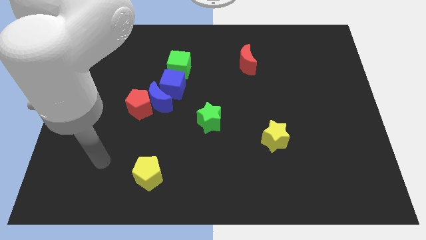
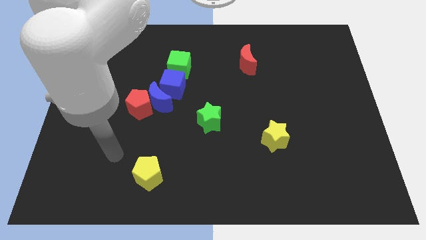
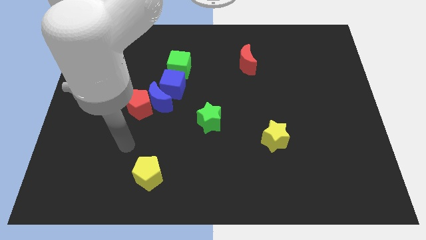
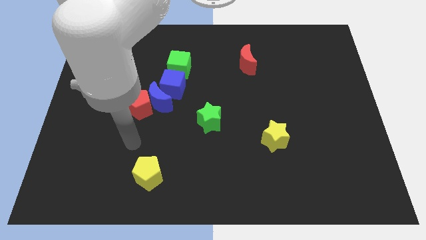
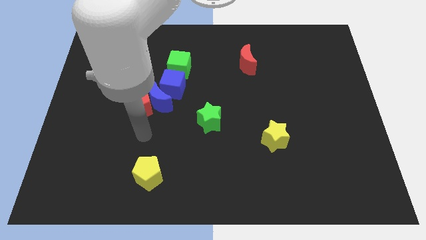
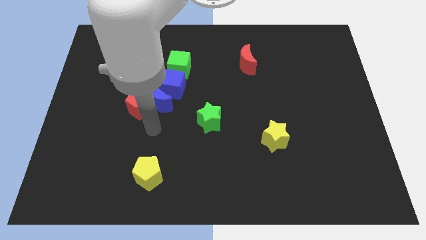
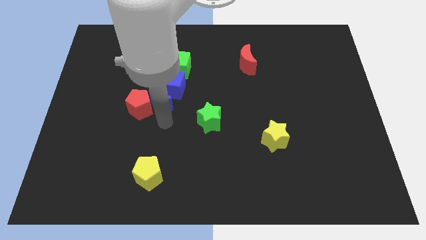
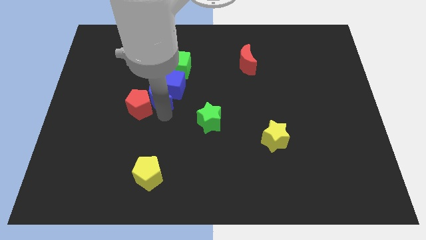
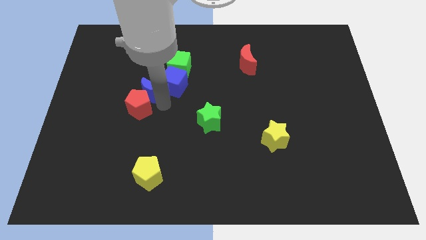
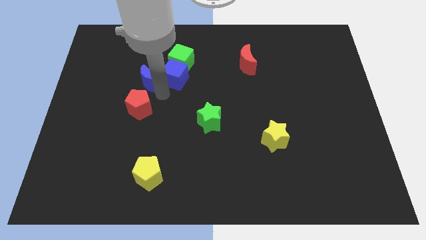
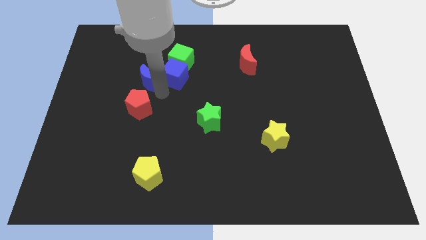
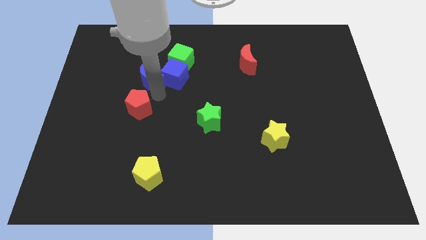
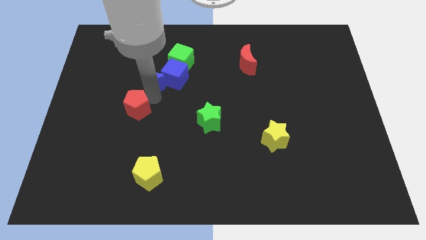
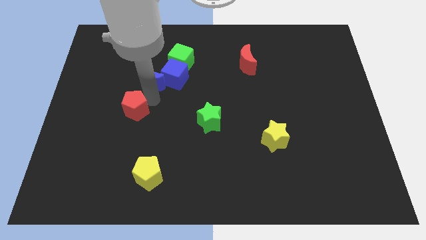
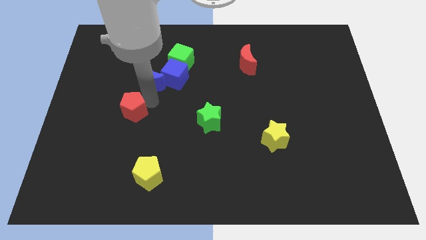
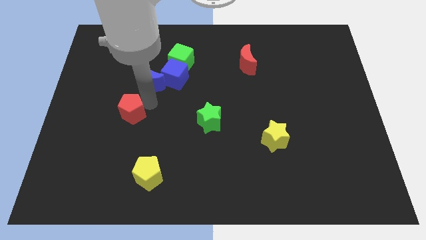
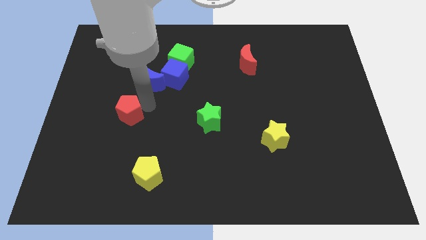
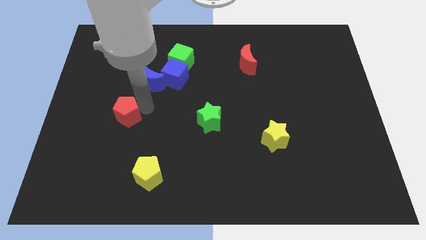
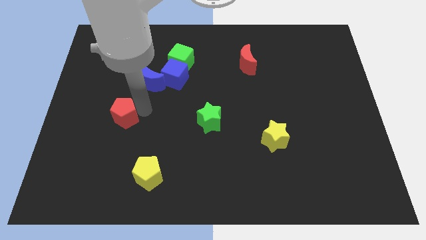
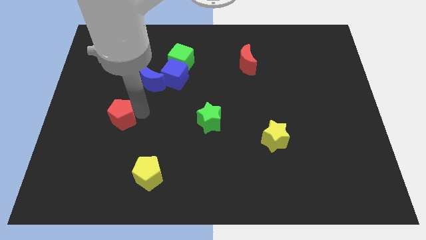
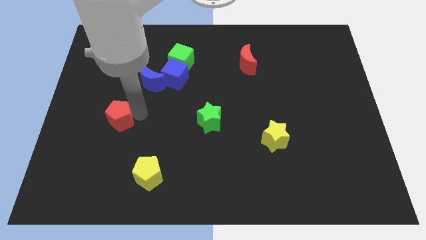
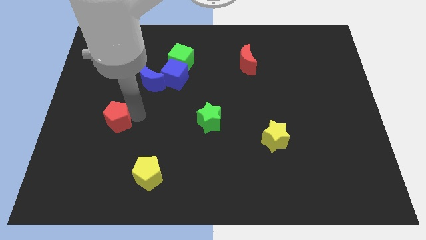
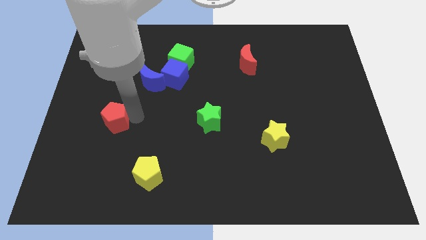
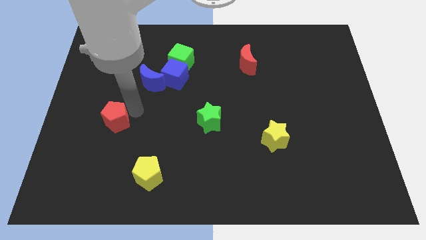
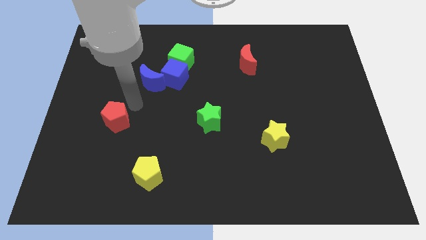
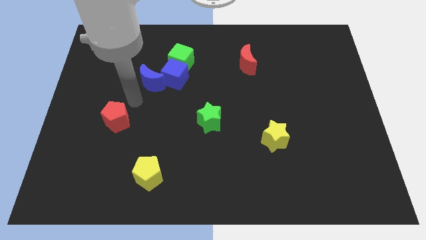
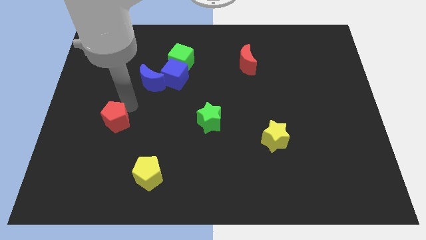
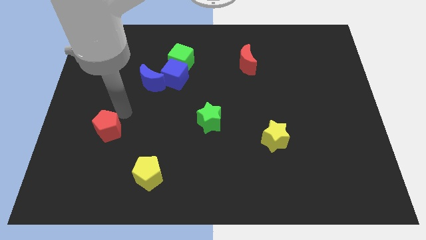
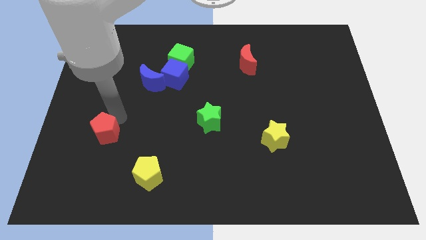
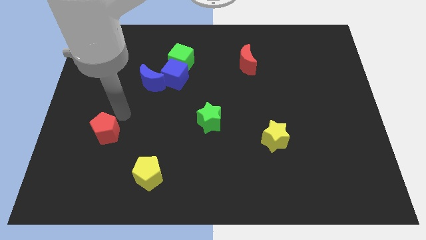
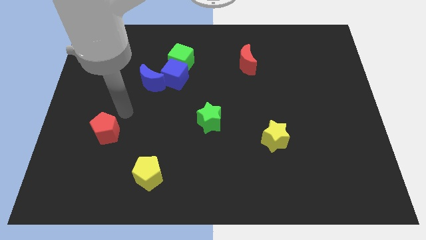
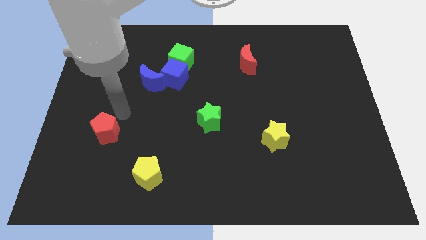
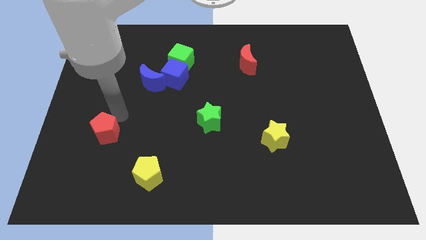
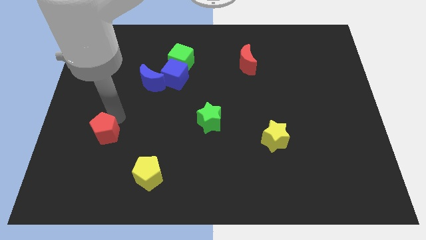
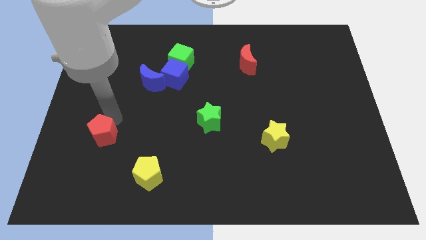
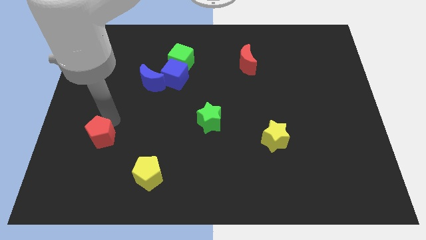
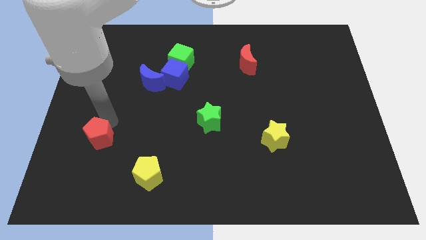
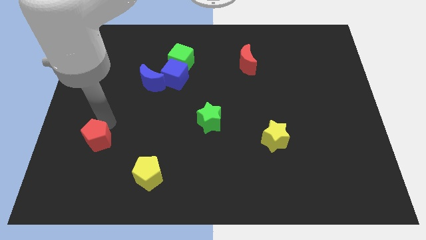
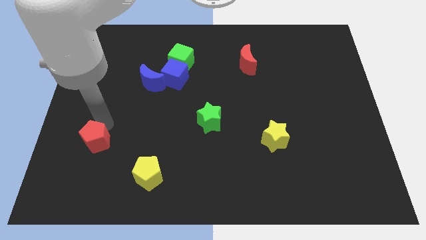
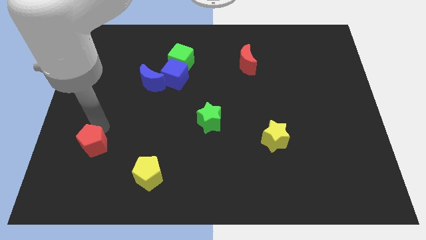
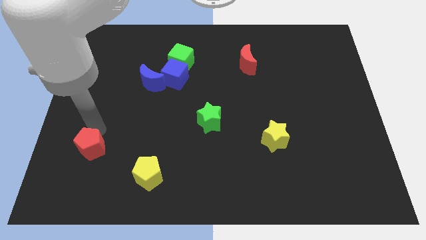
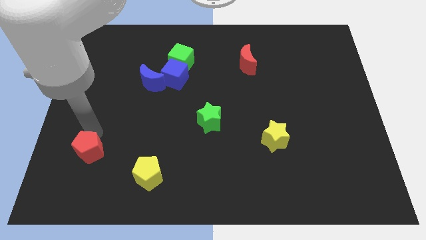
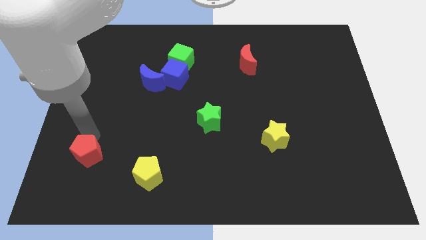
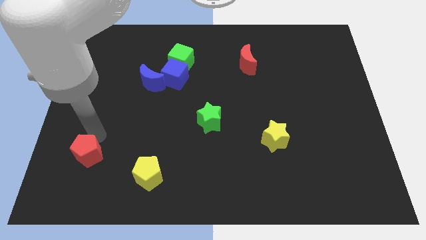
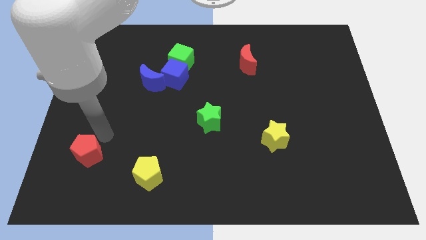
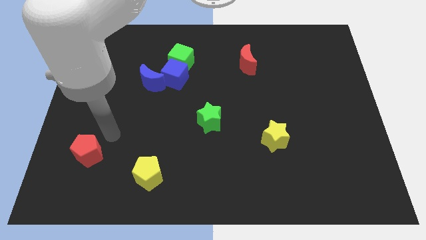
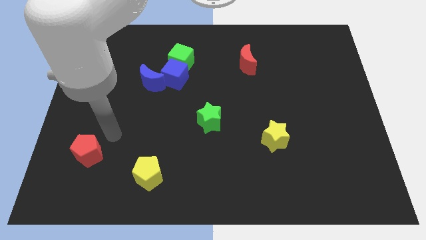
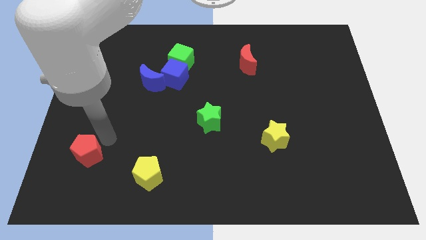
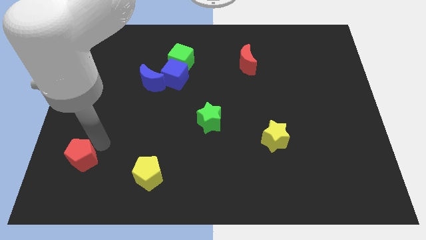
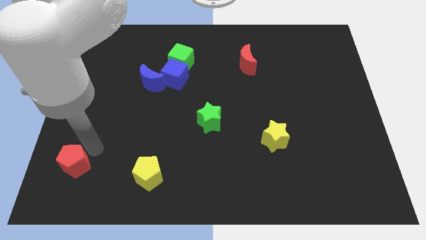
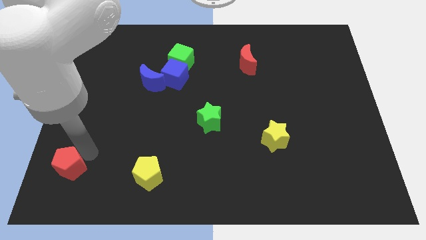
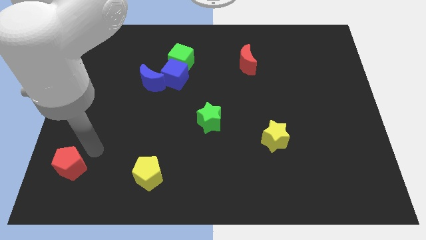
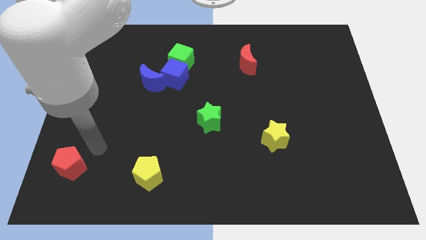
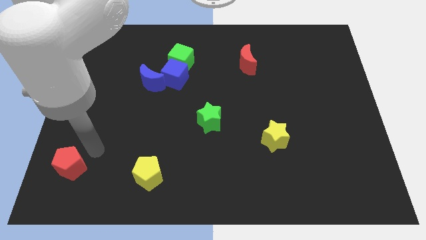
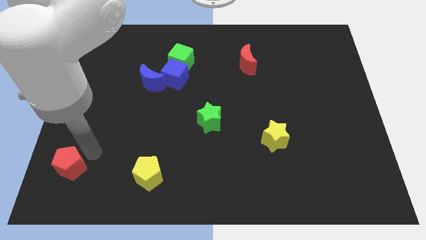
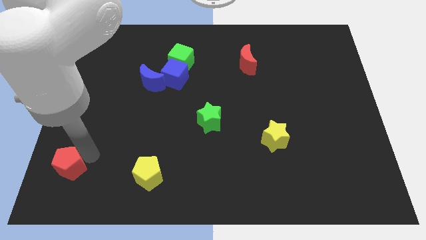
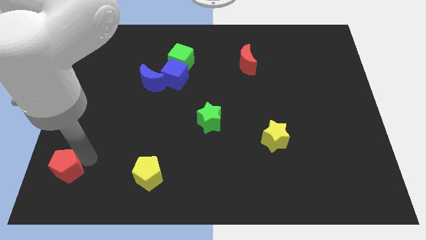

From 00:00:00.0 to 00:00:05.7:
slide the red pentagon to the bottom left of the board
